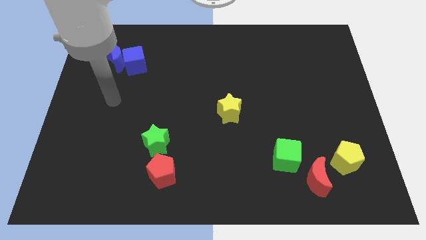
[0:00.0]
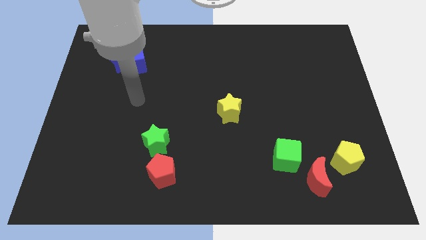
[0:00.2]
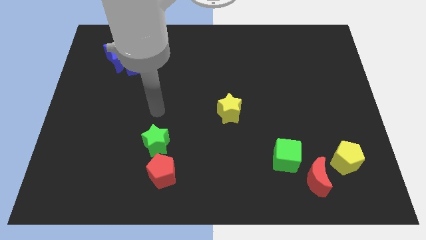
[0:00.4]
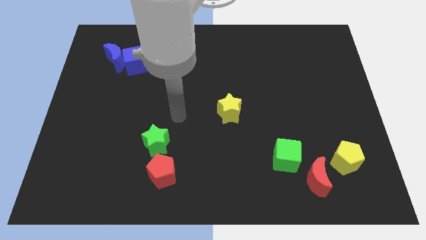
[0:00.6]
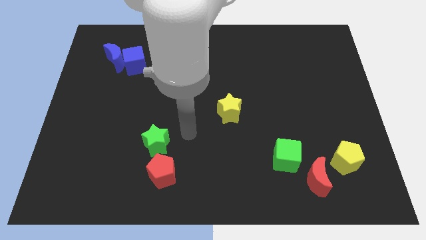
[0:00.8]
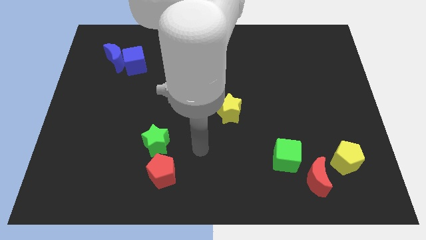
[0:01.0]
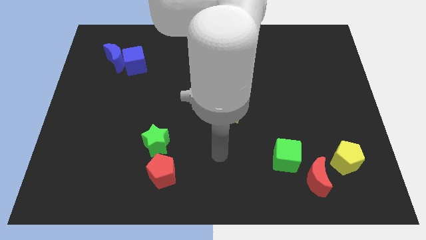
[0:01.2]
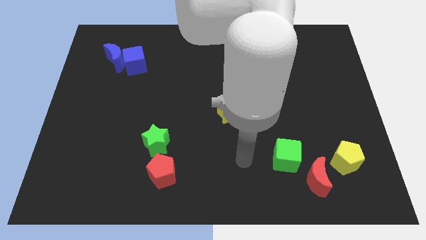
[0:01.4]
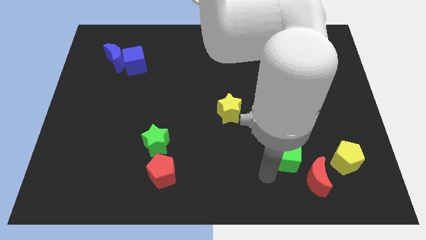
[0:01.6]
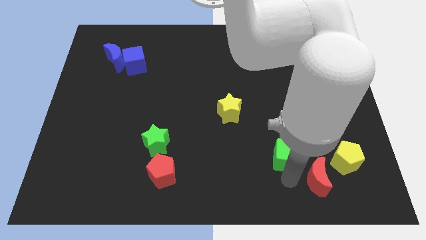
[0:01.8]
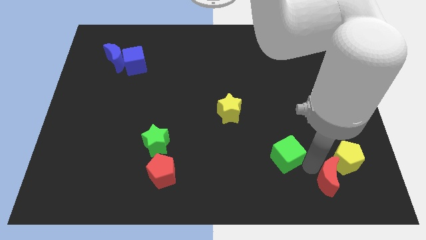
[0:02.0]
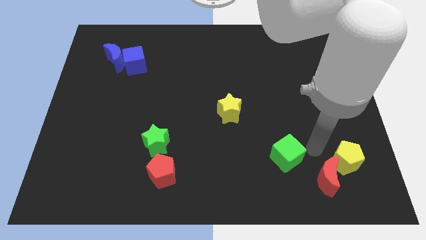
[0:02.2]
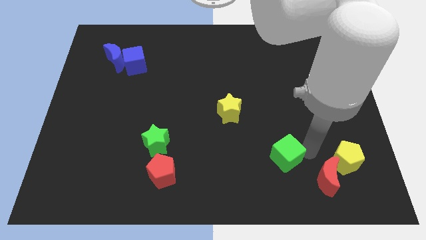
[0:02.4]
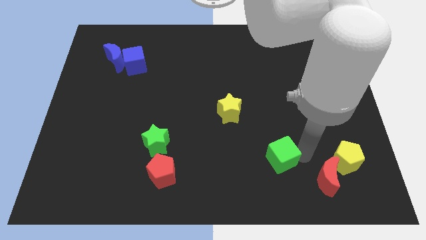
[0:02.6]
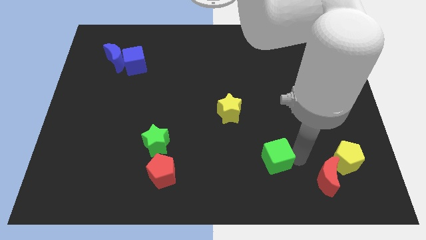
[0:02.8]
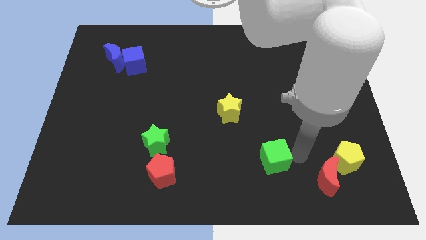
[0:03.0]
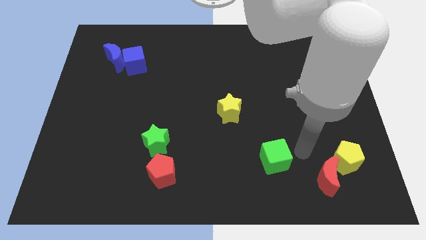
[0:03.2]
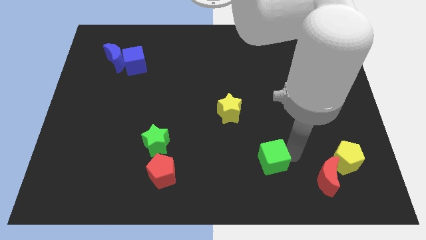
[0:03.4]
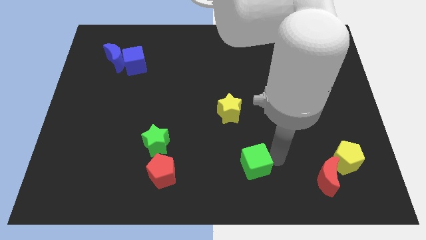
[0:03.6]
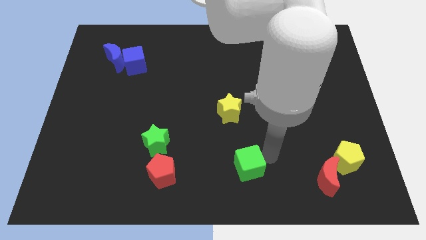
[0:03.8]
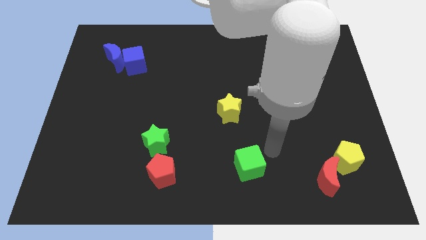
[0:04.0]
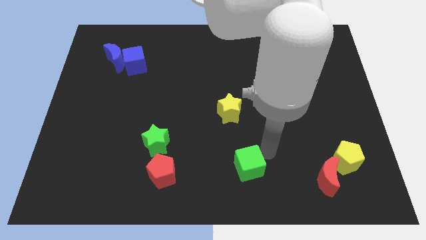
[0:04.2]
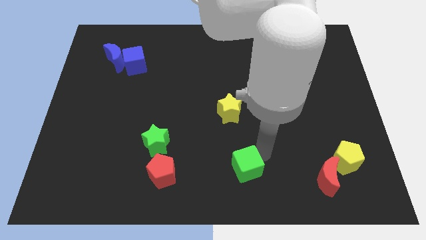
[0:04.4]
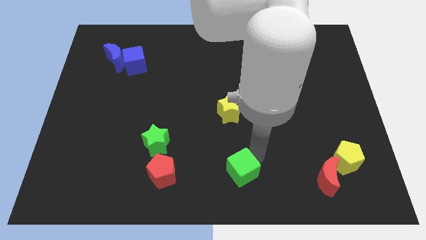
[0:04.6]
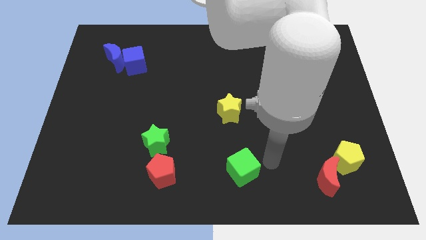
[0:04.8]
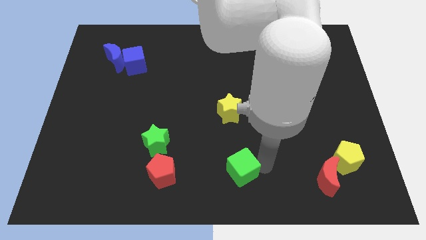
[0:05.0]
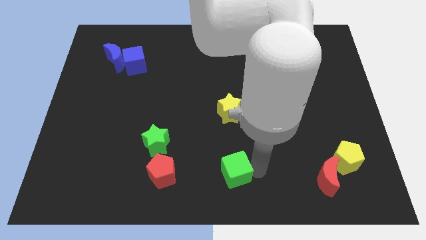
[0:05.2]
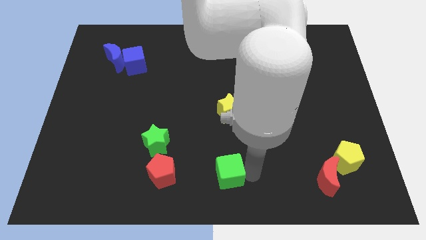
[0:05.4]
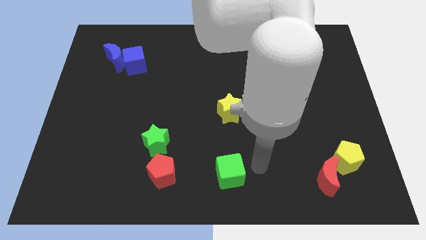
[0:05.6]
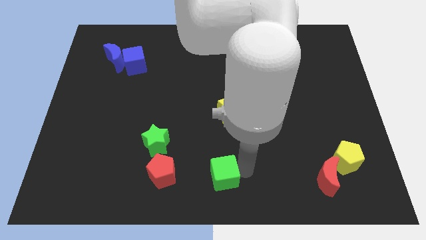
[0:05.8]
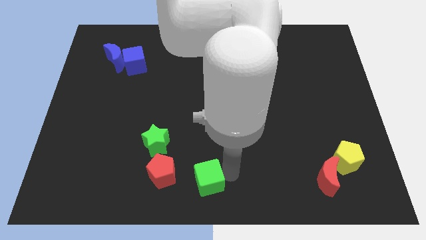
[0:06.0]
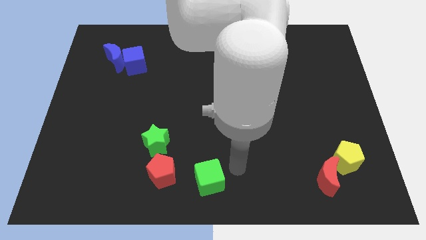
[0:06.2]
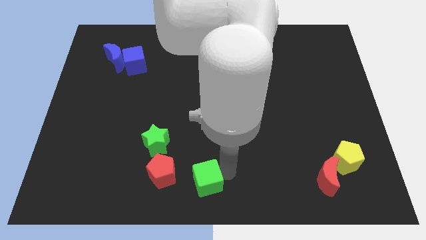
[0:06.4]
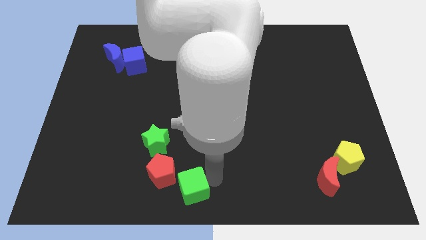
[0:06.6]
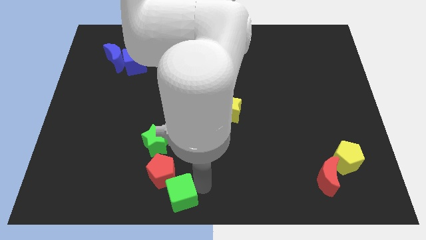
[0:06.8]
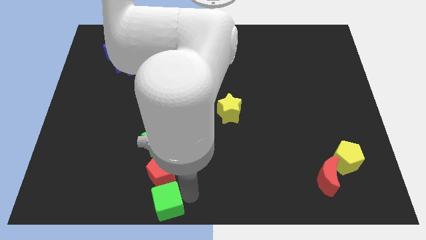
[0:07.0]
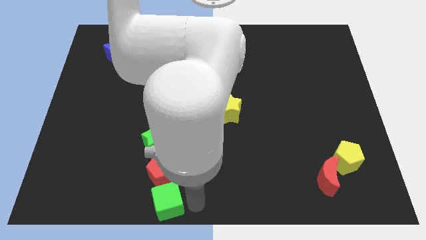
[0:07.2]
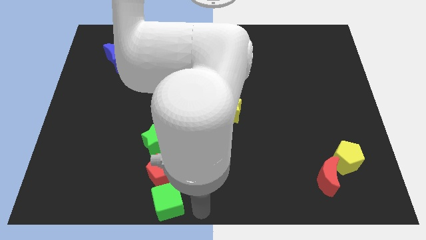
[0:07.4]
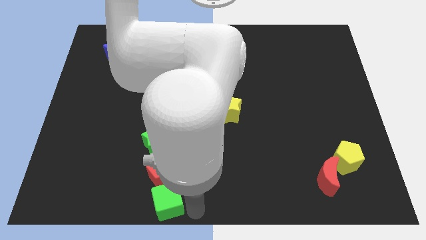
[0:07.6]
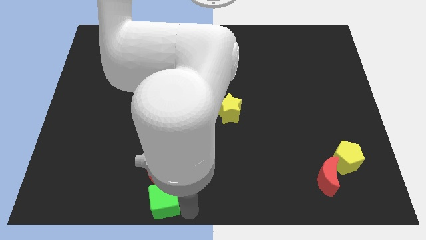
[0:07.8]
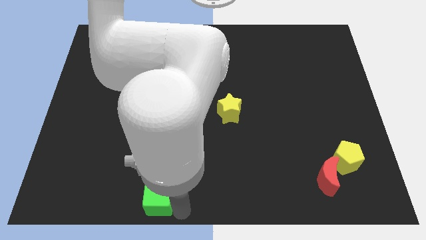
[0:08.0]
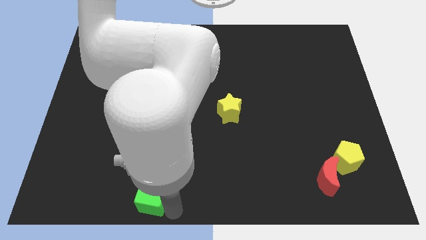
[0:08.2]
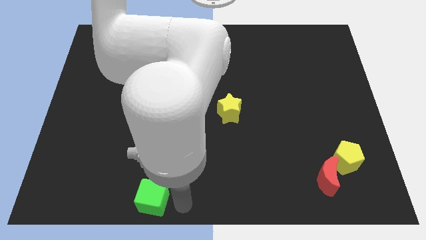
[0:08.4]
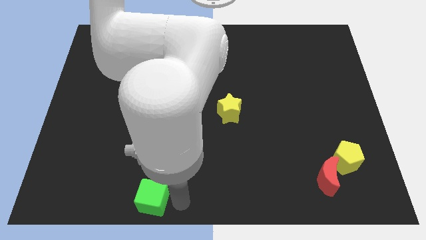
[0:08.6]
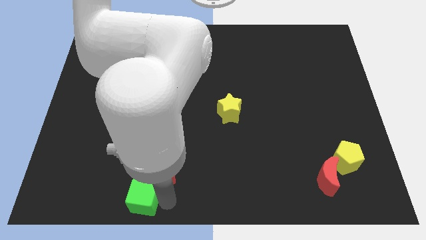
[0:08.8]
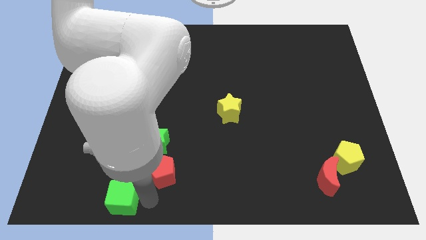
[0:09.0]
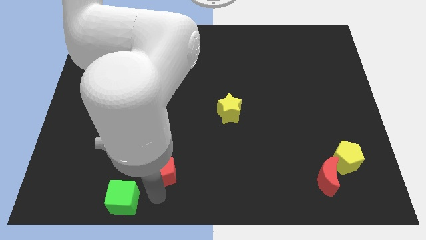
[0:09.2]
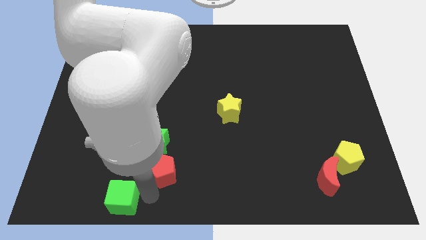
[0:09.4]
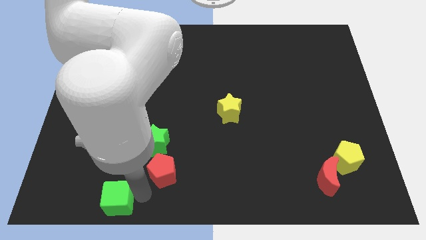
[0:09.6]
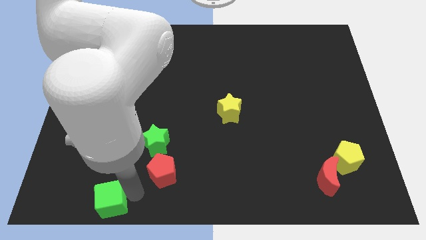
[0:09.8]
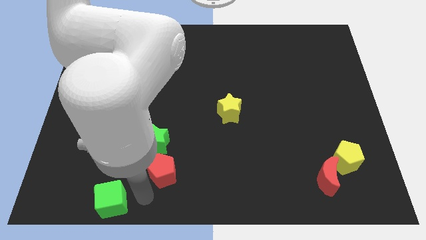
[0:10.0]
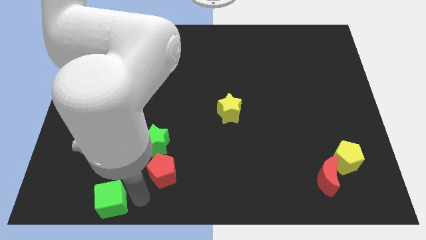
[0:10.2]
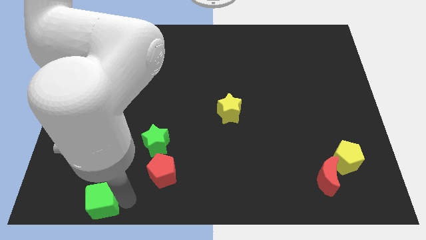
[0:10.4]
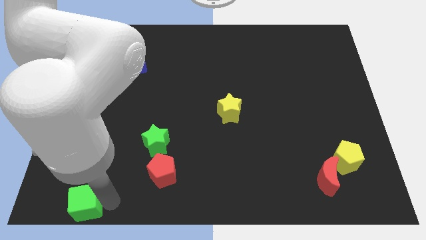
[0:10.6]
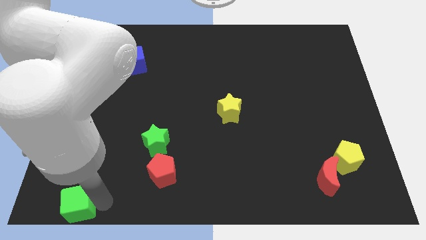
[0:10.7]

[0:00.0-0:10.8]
push the green cube to the lower left corner
